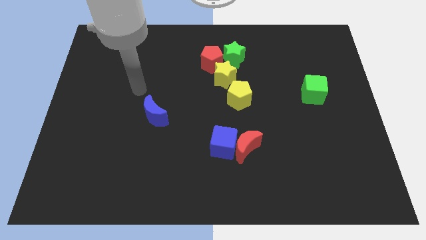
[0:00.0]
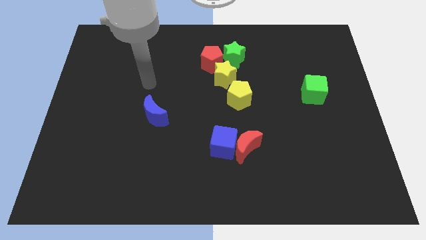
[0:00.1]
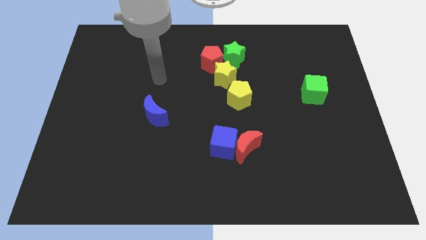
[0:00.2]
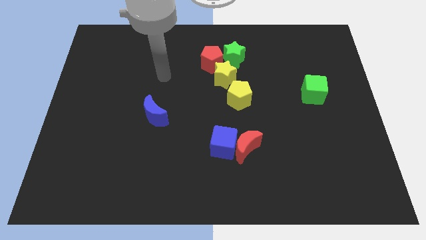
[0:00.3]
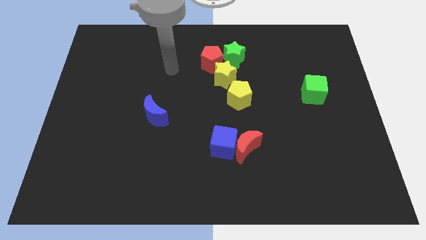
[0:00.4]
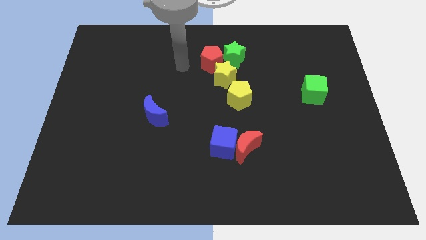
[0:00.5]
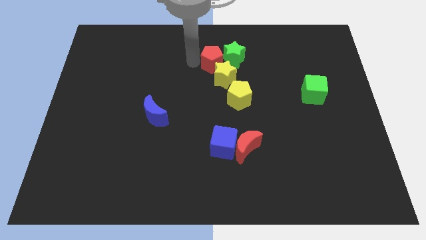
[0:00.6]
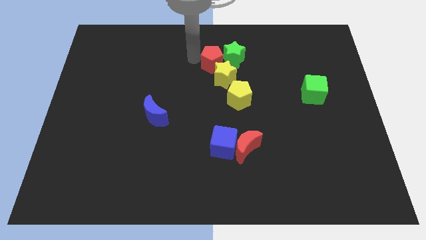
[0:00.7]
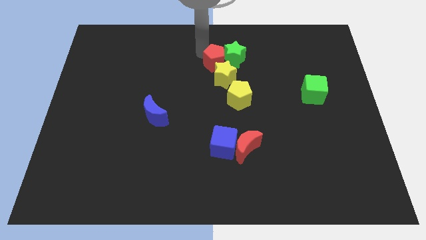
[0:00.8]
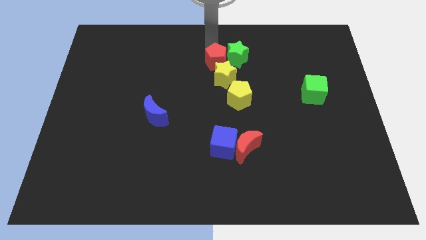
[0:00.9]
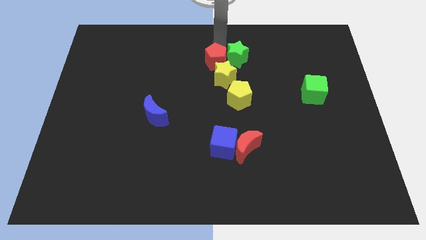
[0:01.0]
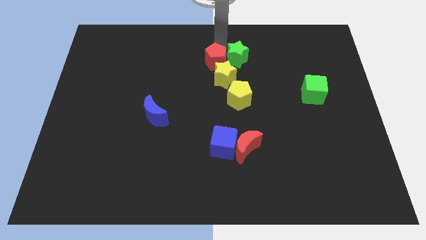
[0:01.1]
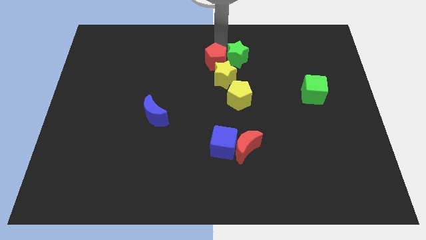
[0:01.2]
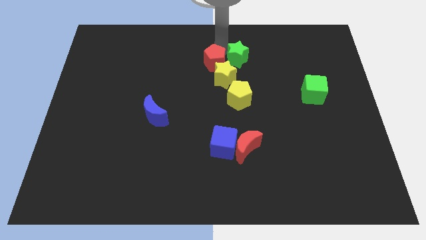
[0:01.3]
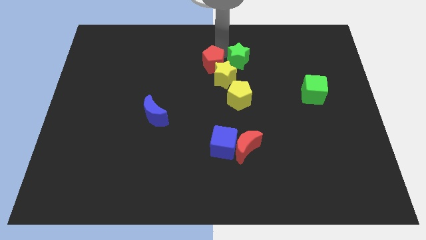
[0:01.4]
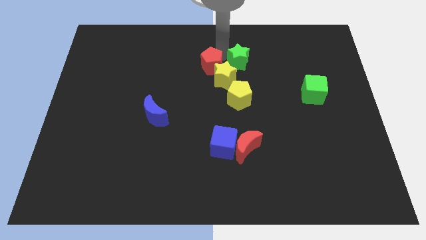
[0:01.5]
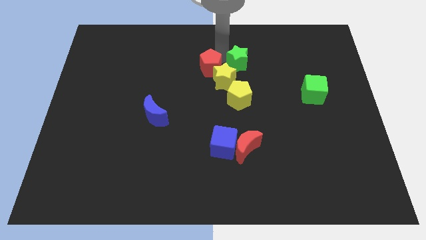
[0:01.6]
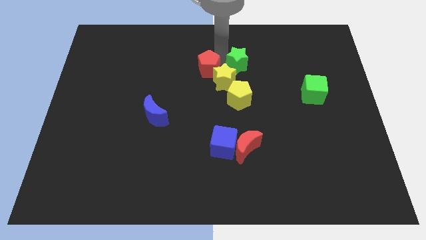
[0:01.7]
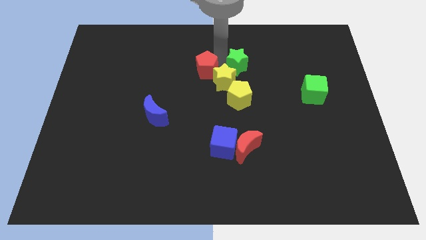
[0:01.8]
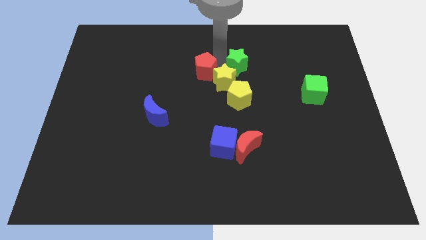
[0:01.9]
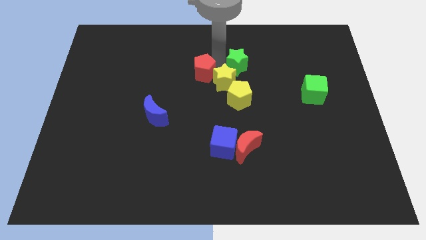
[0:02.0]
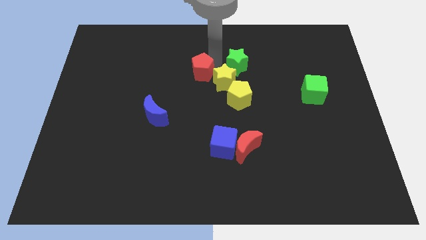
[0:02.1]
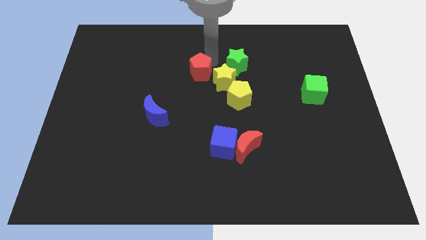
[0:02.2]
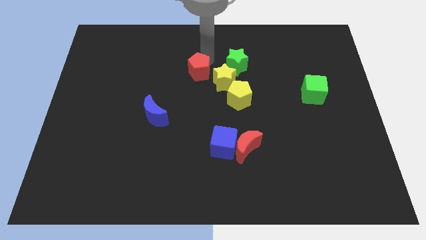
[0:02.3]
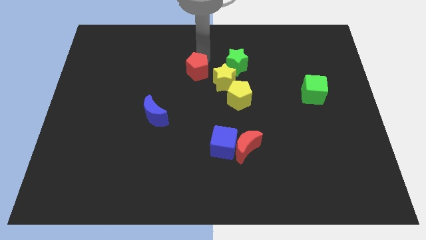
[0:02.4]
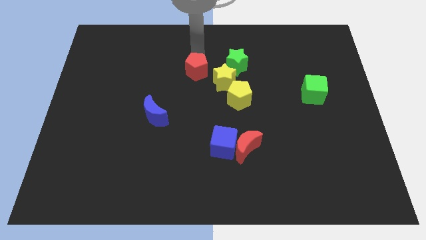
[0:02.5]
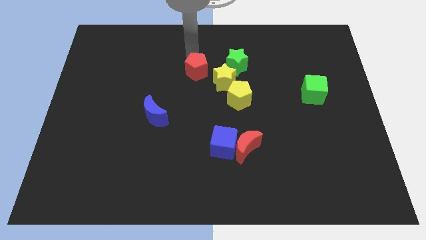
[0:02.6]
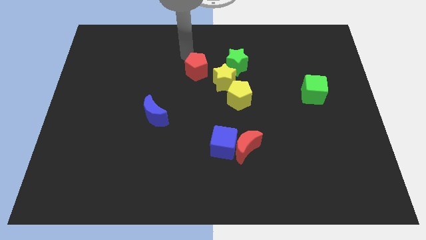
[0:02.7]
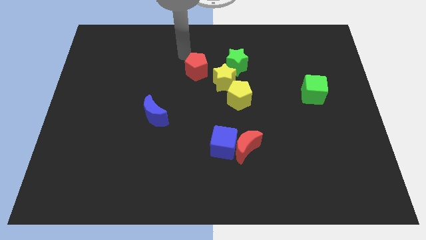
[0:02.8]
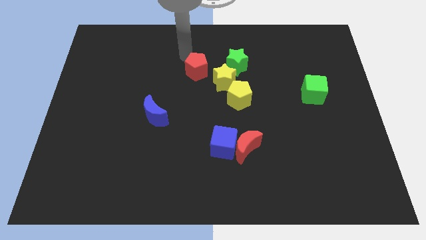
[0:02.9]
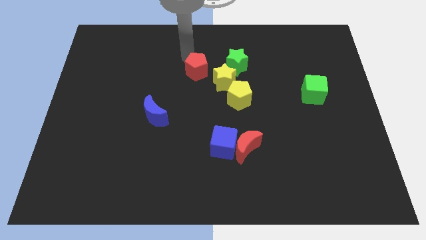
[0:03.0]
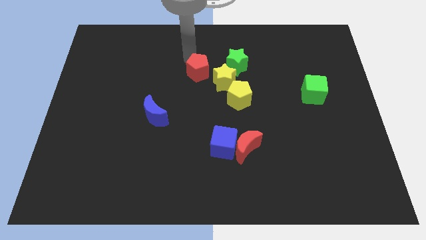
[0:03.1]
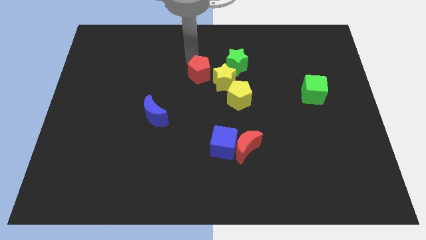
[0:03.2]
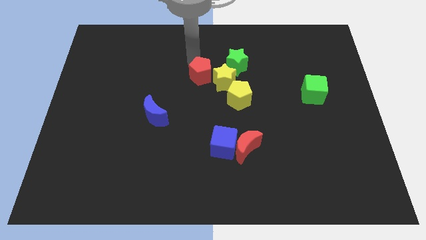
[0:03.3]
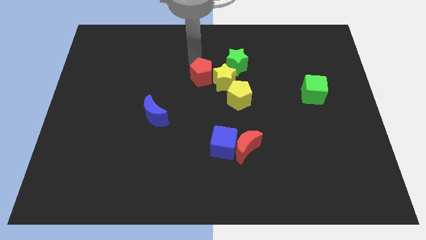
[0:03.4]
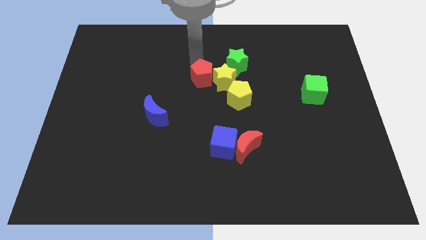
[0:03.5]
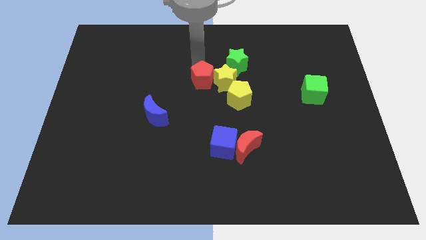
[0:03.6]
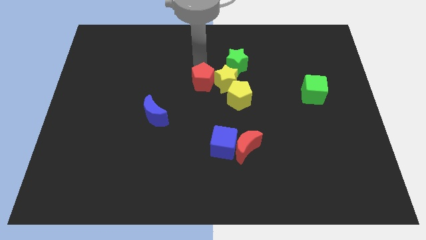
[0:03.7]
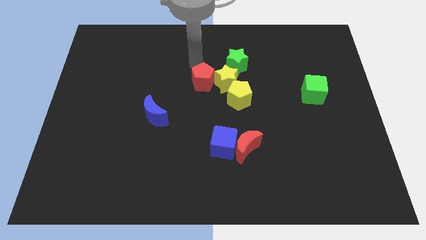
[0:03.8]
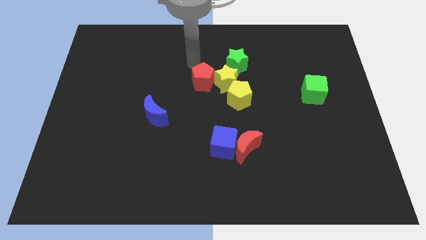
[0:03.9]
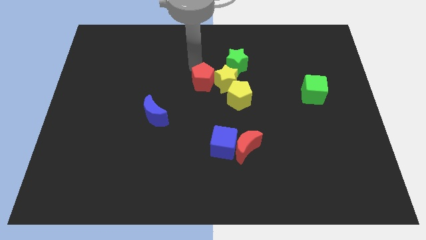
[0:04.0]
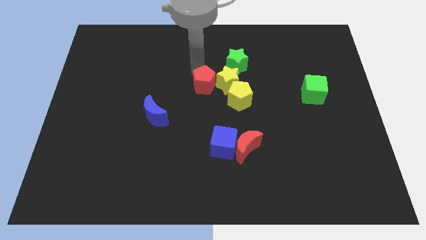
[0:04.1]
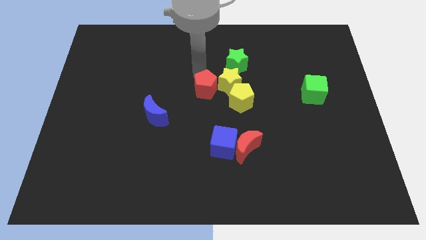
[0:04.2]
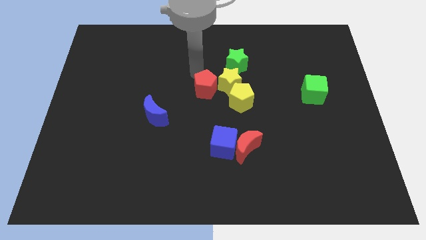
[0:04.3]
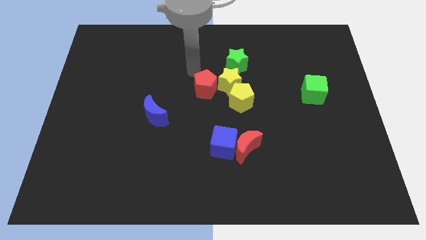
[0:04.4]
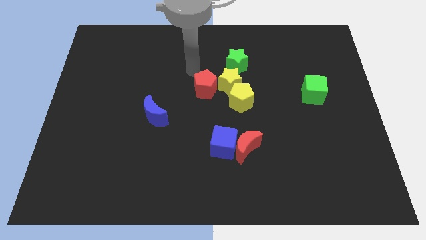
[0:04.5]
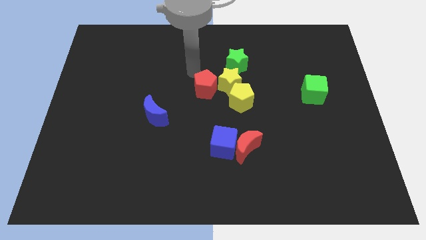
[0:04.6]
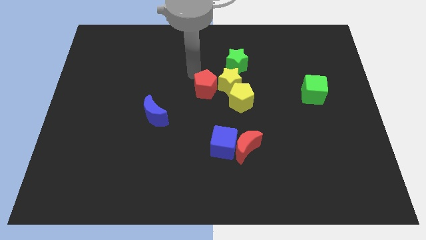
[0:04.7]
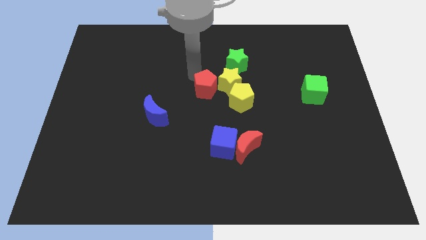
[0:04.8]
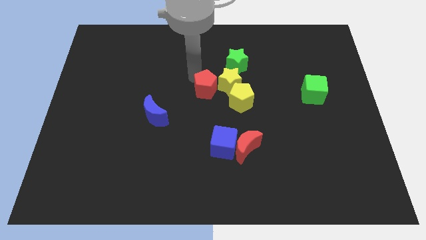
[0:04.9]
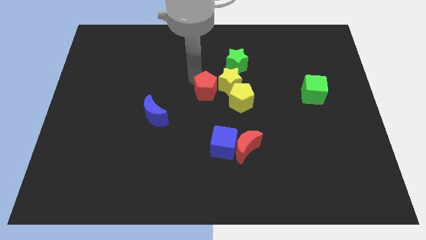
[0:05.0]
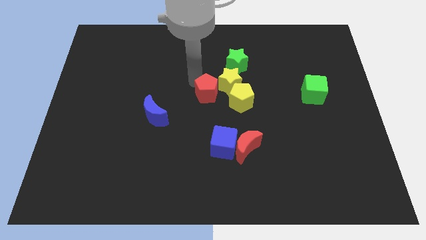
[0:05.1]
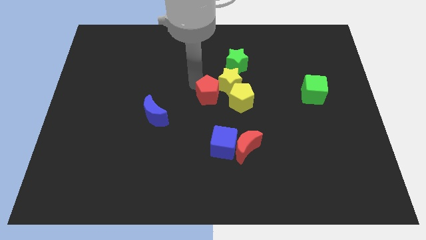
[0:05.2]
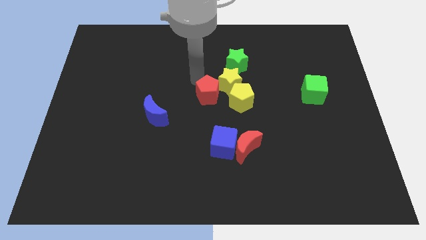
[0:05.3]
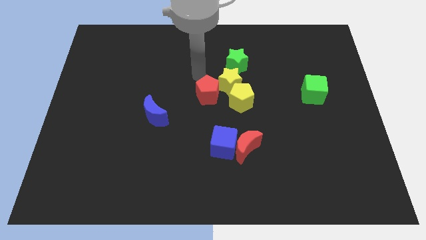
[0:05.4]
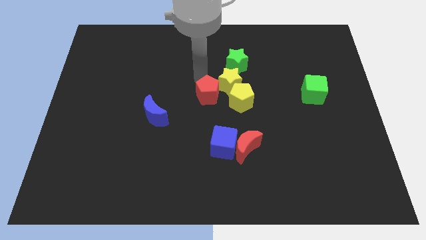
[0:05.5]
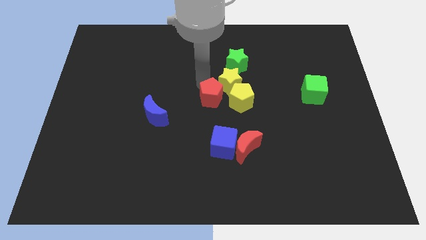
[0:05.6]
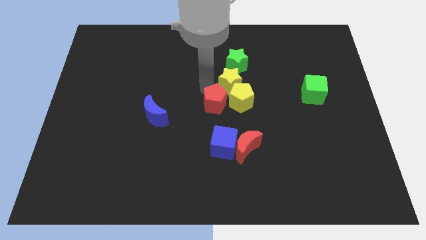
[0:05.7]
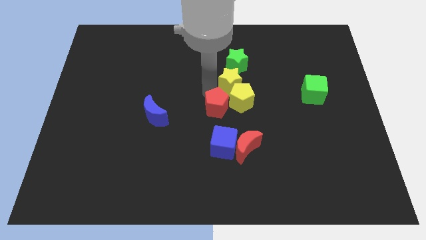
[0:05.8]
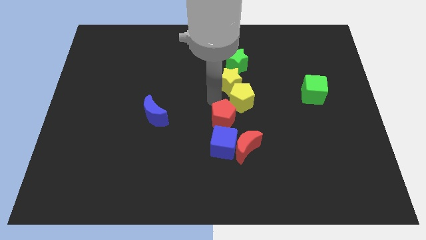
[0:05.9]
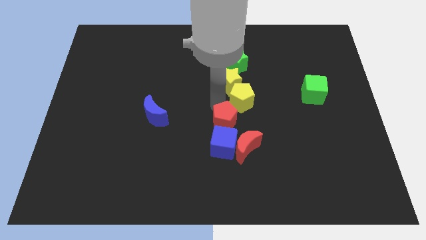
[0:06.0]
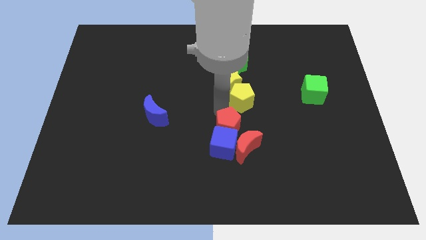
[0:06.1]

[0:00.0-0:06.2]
push the red pentagon to the blue cube

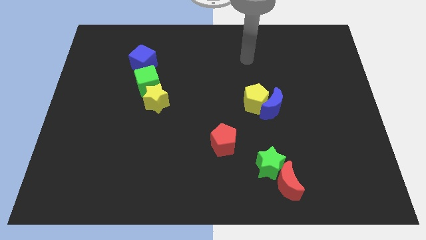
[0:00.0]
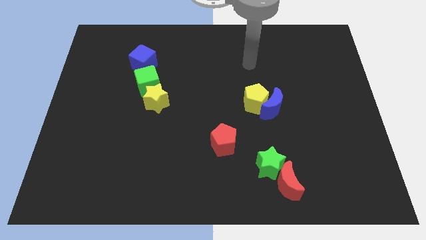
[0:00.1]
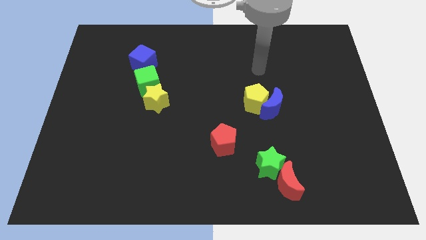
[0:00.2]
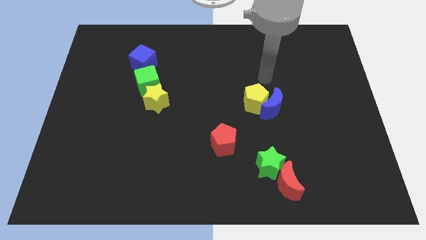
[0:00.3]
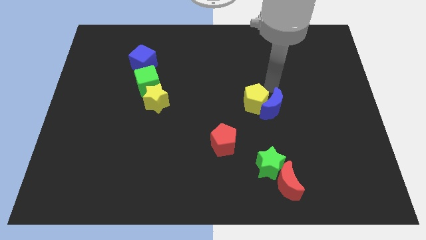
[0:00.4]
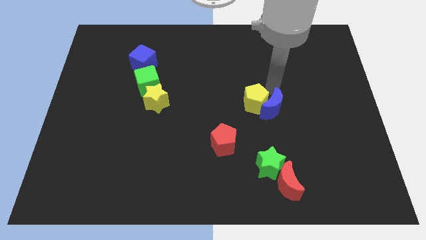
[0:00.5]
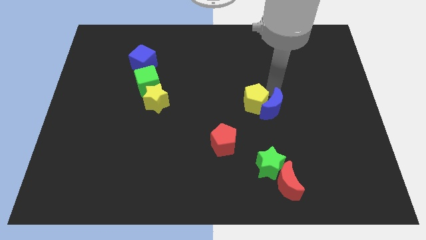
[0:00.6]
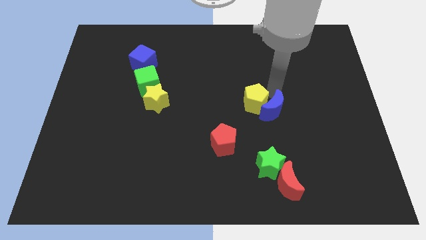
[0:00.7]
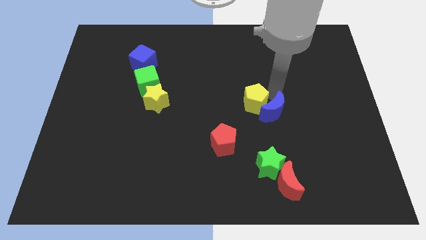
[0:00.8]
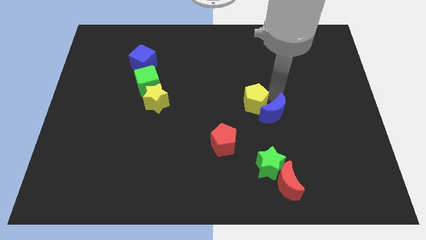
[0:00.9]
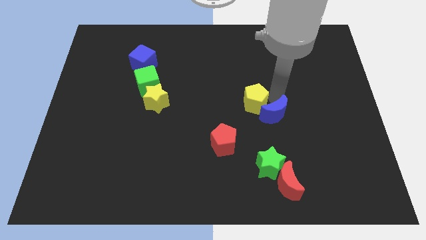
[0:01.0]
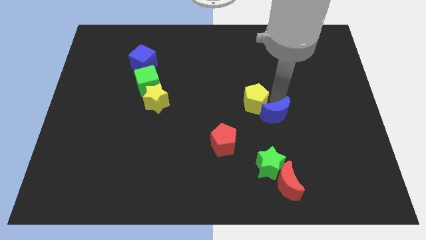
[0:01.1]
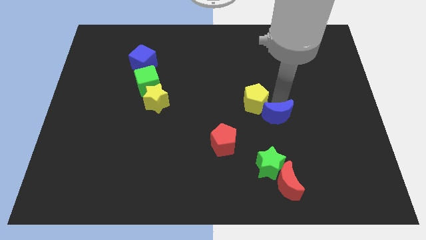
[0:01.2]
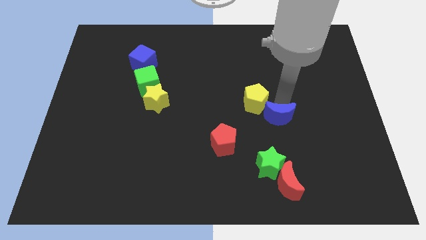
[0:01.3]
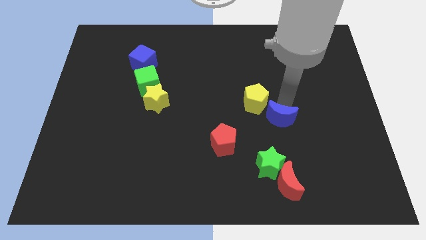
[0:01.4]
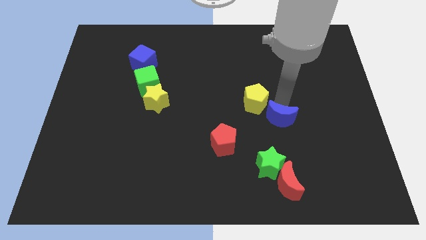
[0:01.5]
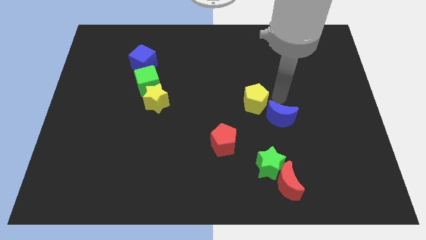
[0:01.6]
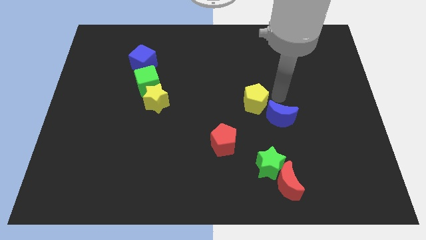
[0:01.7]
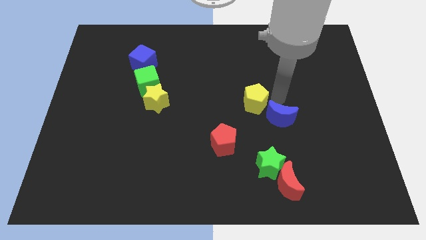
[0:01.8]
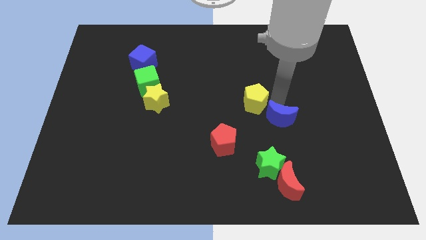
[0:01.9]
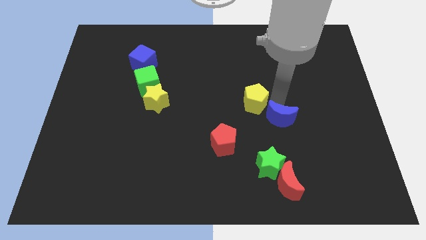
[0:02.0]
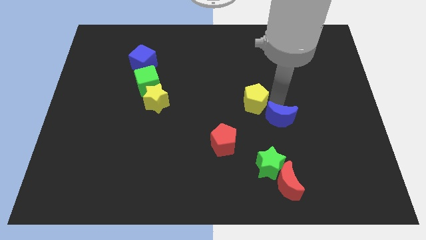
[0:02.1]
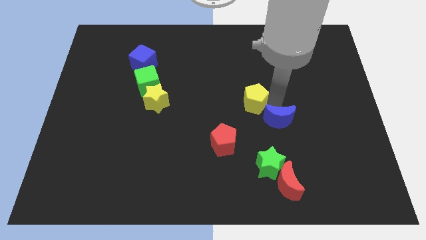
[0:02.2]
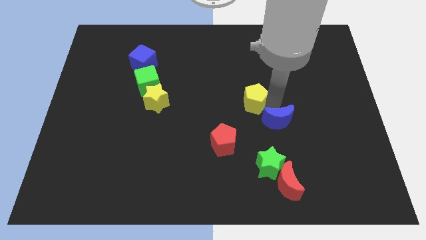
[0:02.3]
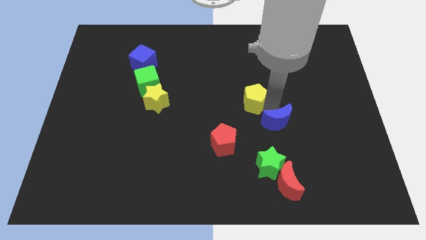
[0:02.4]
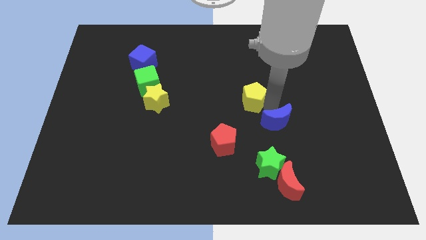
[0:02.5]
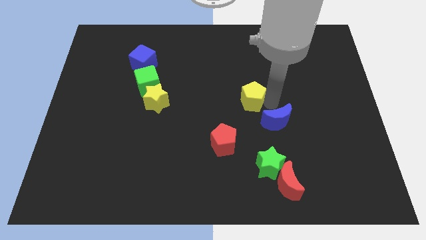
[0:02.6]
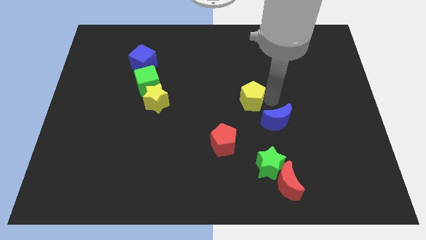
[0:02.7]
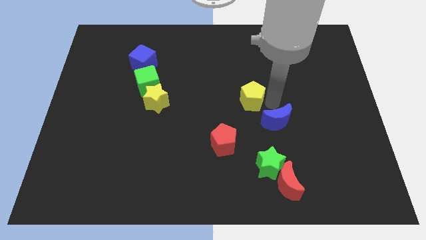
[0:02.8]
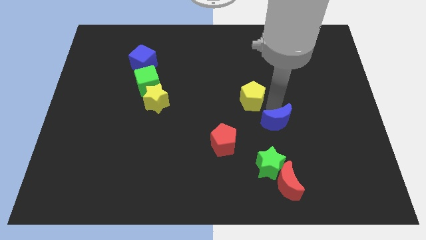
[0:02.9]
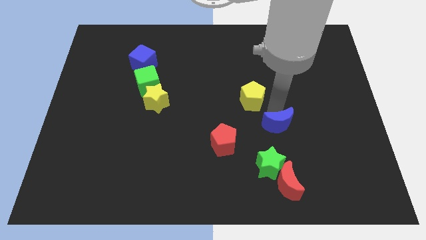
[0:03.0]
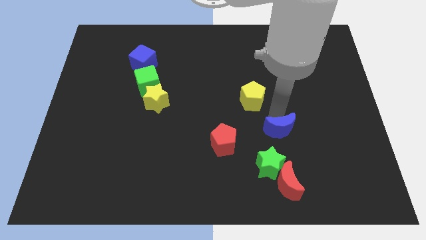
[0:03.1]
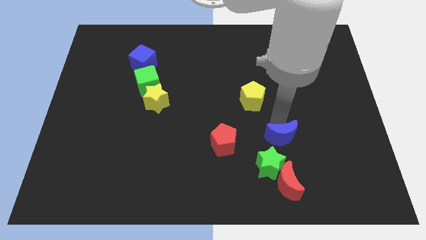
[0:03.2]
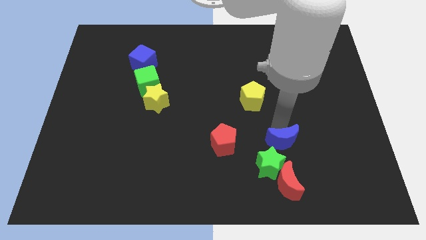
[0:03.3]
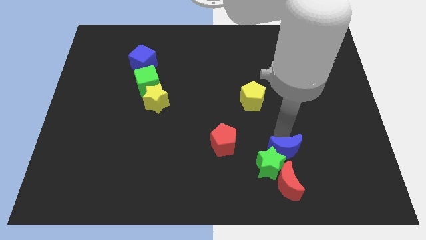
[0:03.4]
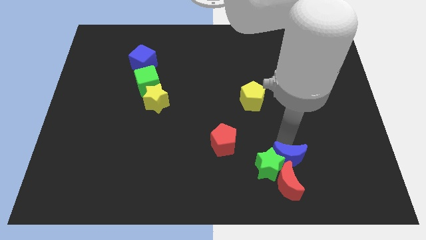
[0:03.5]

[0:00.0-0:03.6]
push the blue moon towards the red moon
